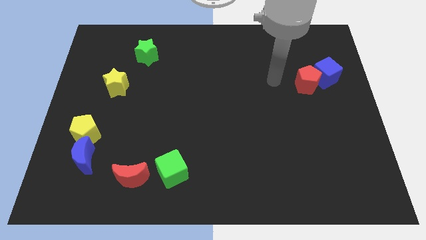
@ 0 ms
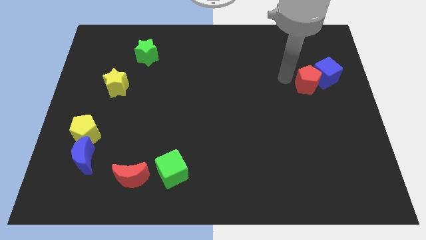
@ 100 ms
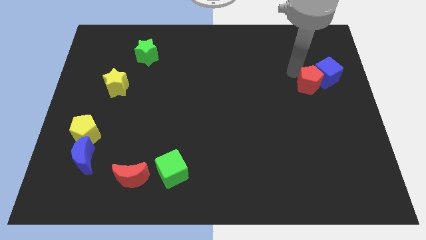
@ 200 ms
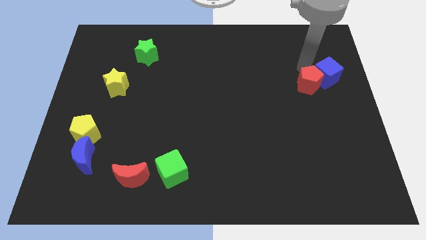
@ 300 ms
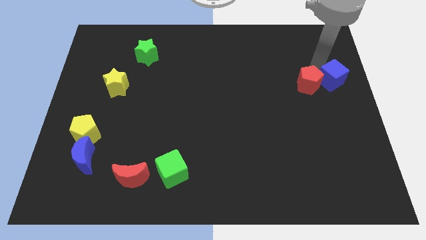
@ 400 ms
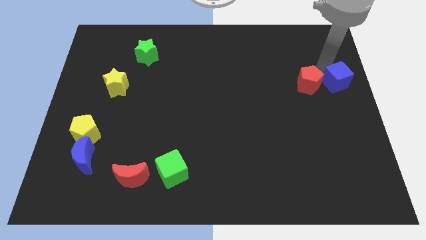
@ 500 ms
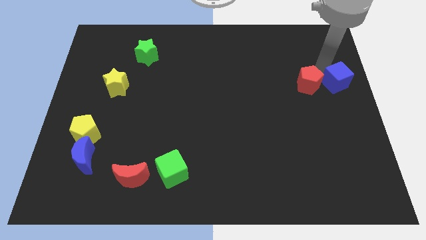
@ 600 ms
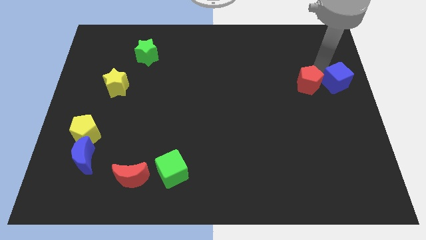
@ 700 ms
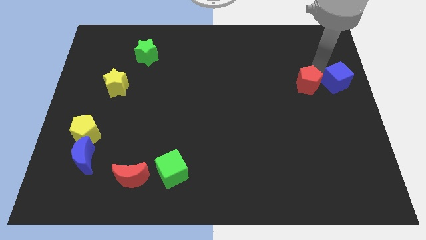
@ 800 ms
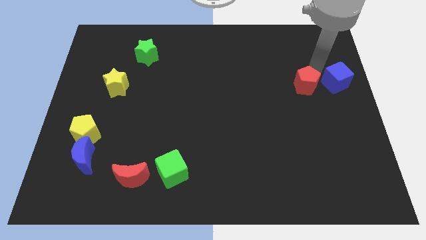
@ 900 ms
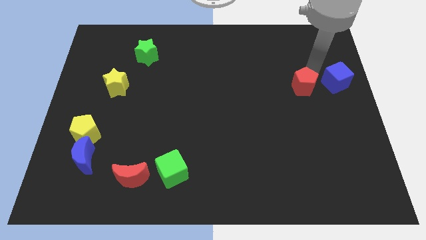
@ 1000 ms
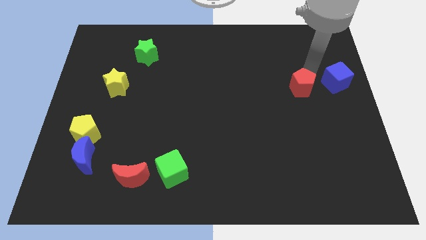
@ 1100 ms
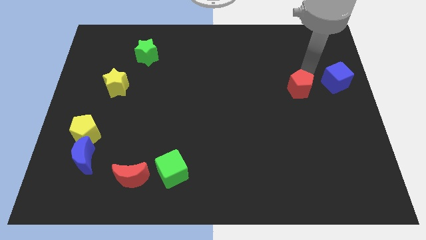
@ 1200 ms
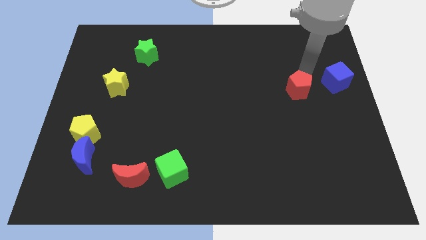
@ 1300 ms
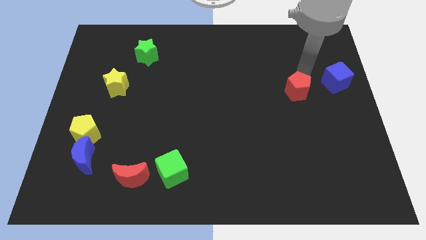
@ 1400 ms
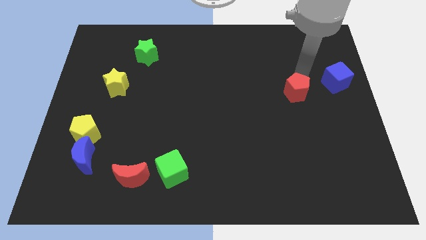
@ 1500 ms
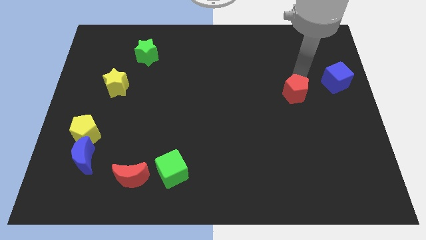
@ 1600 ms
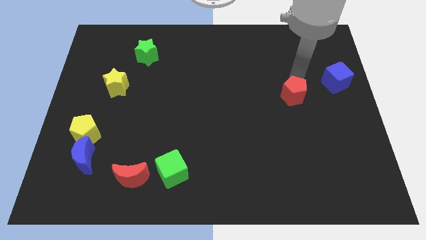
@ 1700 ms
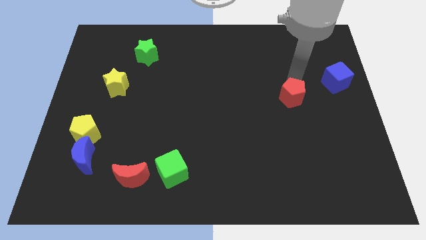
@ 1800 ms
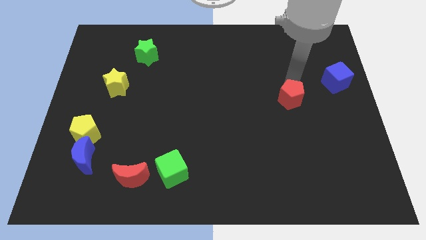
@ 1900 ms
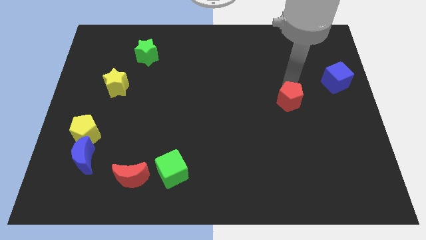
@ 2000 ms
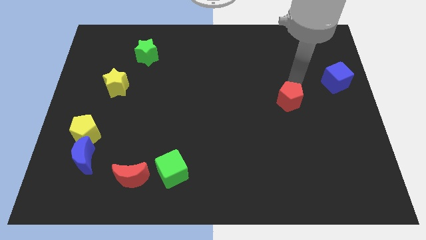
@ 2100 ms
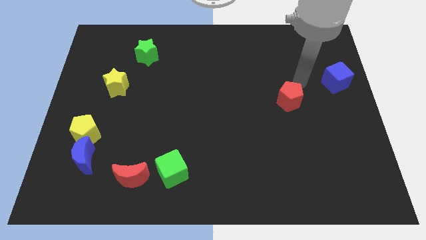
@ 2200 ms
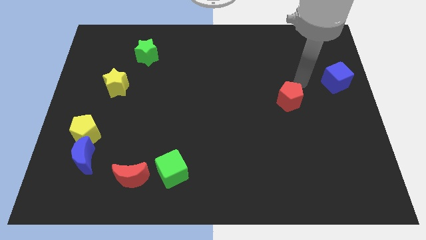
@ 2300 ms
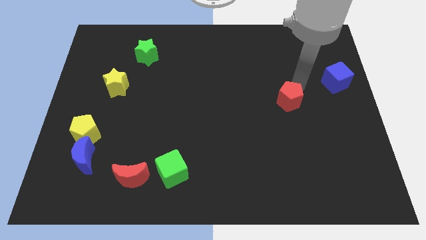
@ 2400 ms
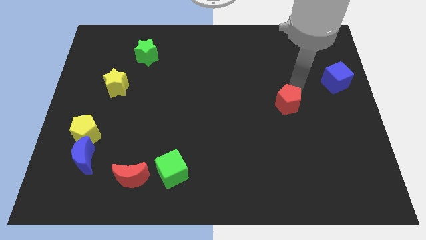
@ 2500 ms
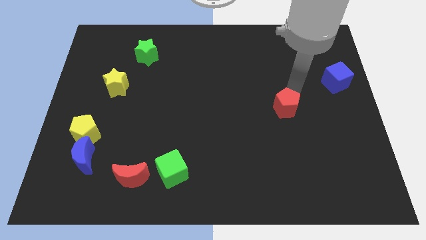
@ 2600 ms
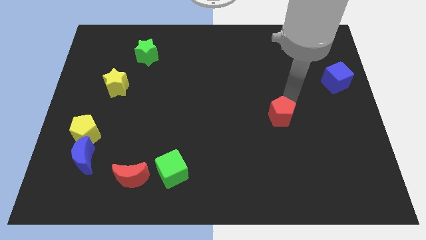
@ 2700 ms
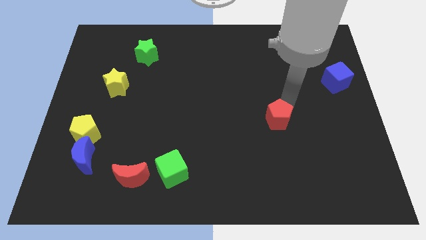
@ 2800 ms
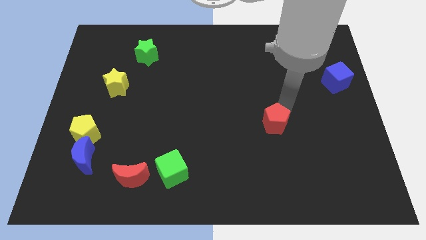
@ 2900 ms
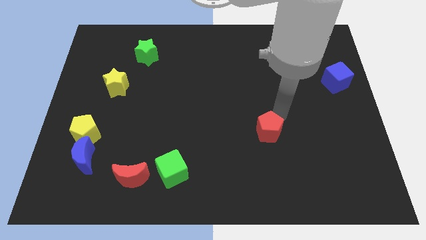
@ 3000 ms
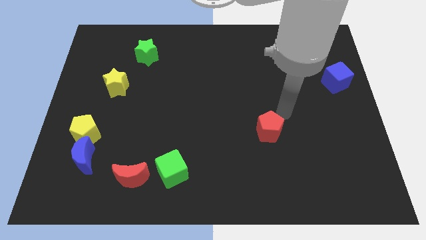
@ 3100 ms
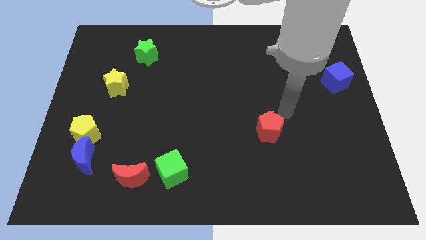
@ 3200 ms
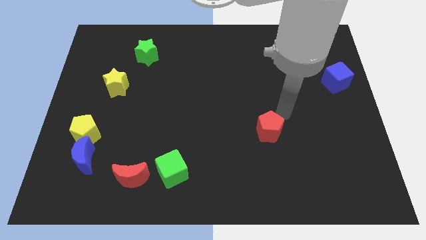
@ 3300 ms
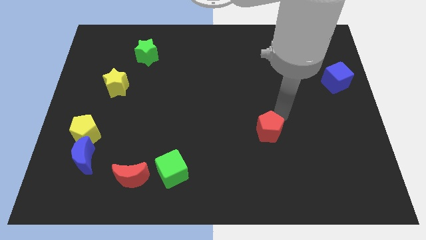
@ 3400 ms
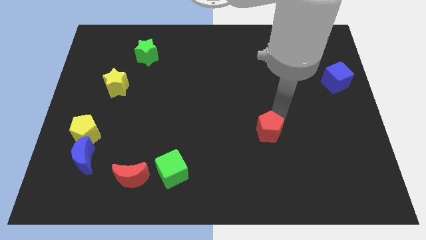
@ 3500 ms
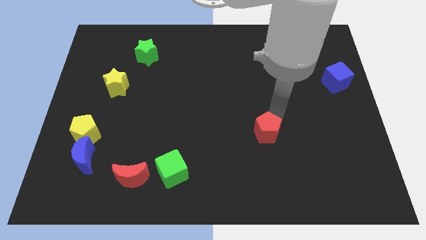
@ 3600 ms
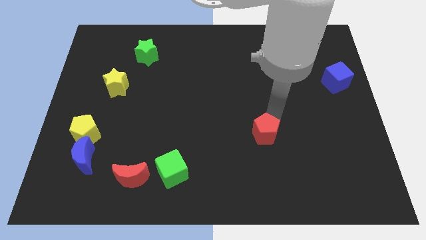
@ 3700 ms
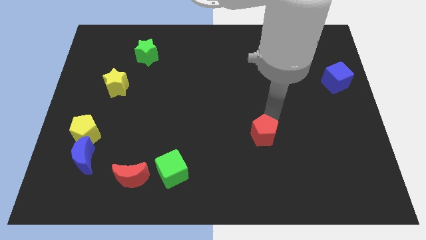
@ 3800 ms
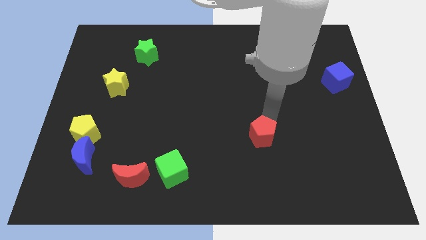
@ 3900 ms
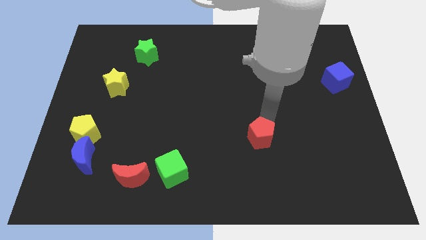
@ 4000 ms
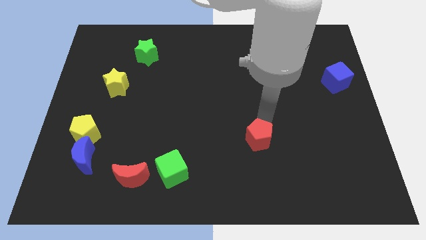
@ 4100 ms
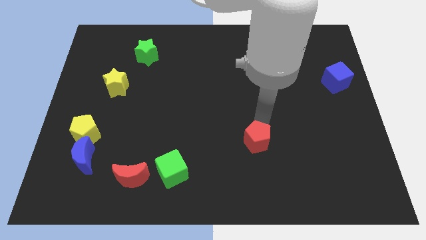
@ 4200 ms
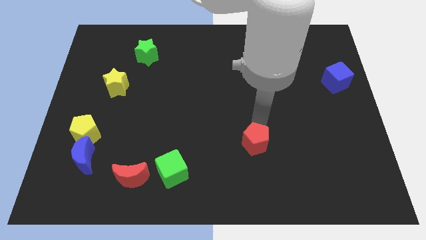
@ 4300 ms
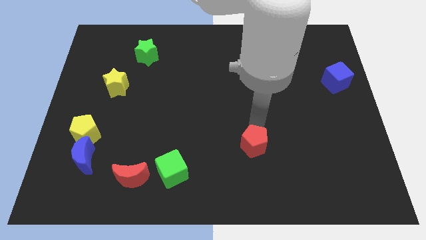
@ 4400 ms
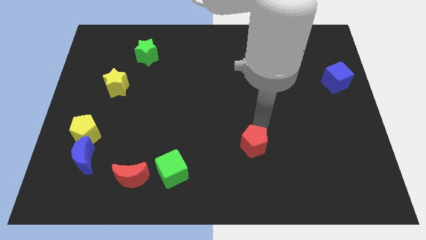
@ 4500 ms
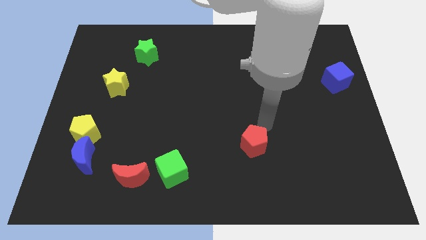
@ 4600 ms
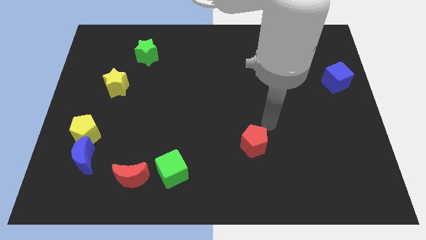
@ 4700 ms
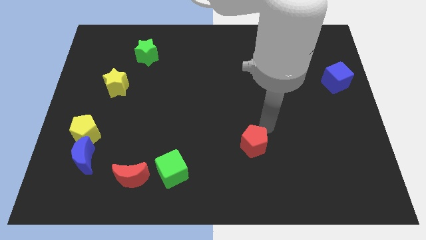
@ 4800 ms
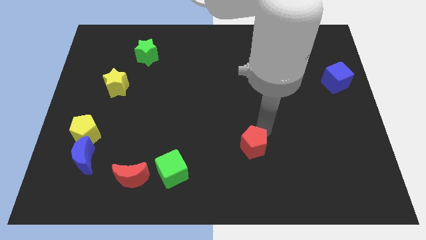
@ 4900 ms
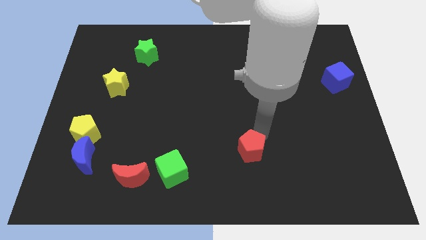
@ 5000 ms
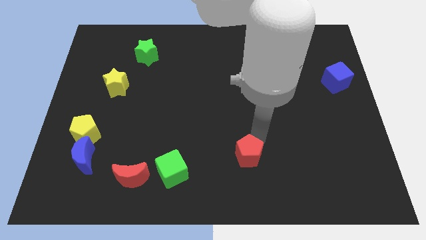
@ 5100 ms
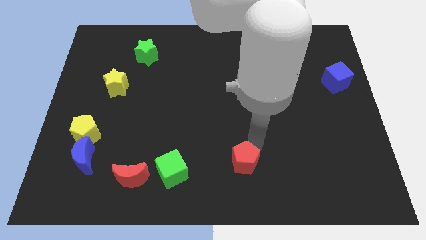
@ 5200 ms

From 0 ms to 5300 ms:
push the red pentagon to the right side of the green cube

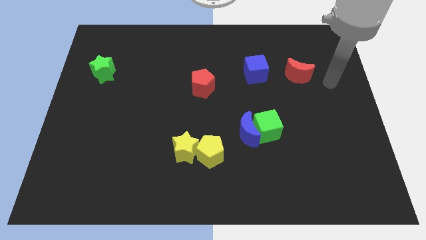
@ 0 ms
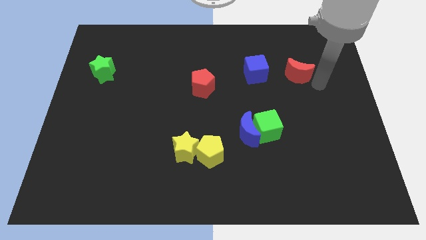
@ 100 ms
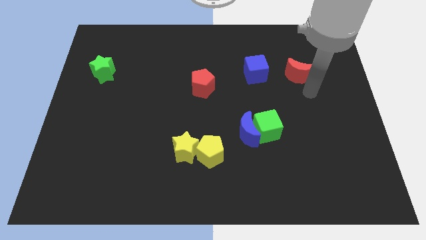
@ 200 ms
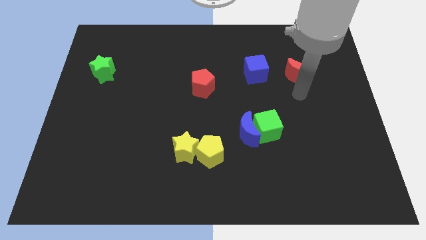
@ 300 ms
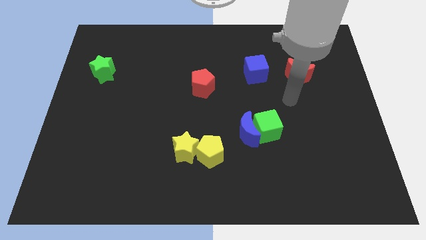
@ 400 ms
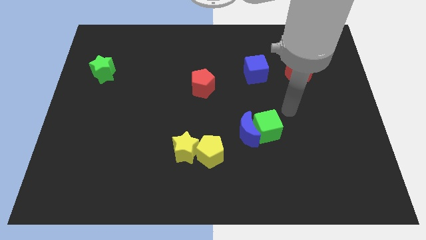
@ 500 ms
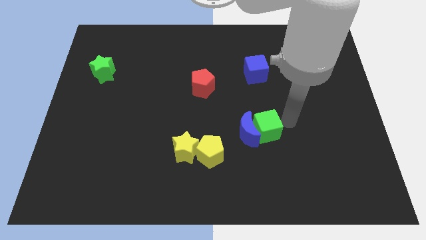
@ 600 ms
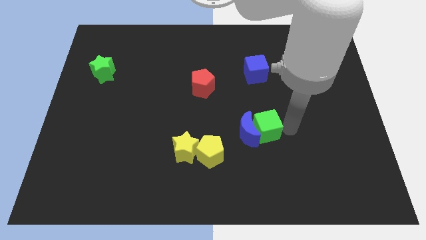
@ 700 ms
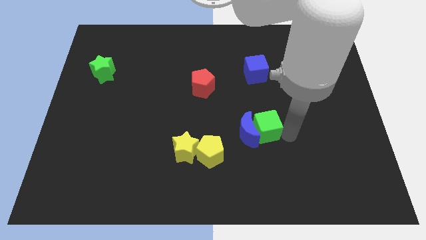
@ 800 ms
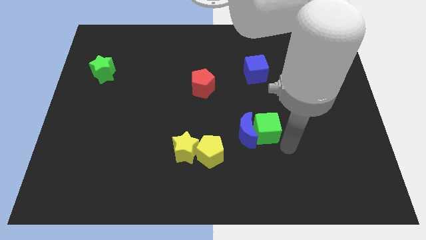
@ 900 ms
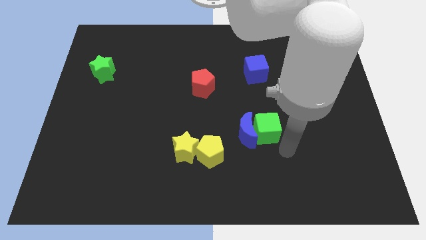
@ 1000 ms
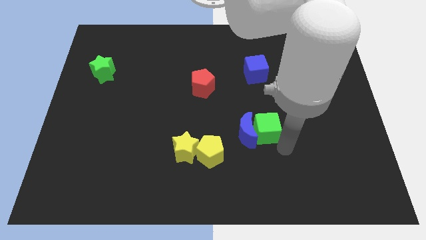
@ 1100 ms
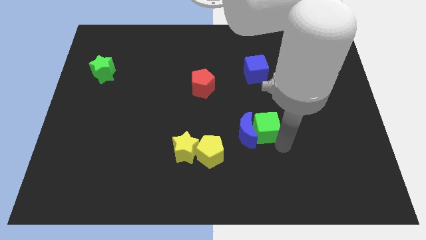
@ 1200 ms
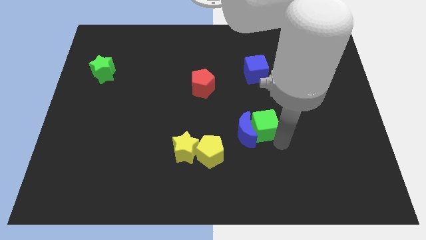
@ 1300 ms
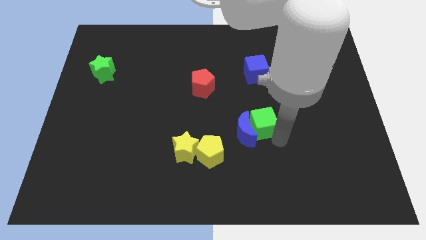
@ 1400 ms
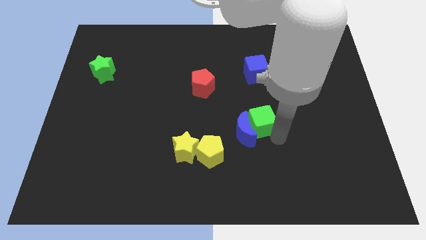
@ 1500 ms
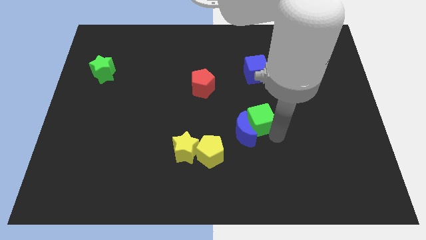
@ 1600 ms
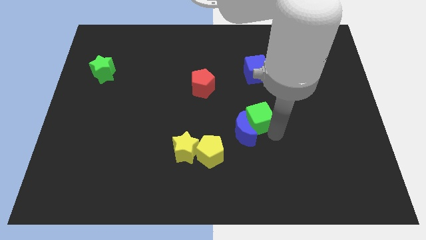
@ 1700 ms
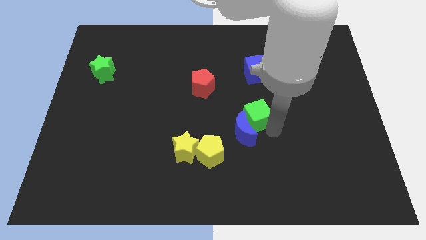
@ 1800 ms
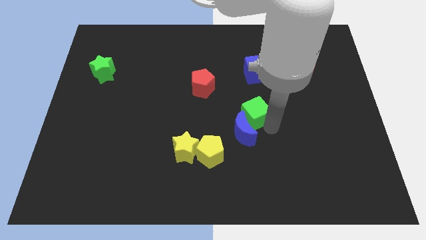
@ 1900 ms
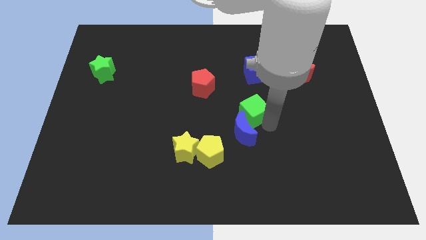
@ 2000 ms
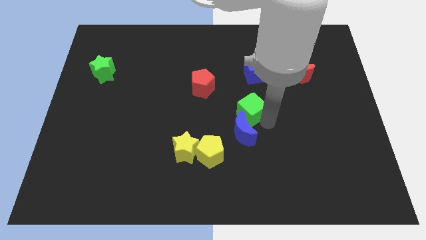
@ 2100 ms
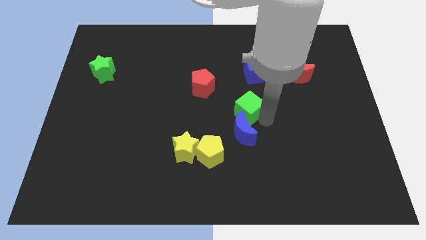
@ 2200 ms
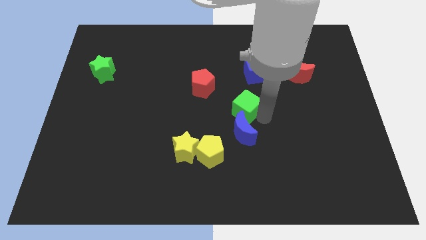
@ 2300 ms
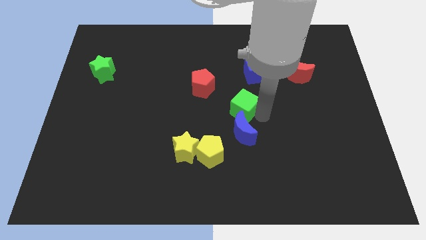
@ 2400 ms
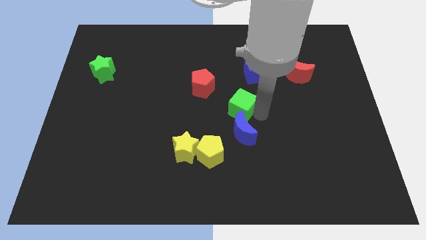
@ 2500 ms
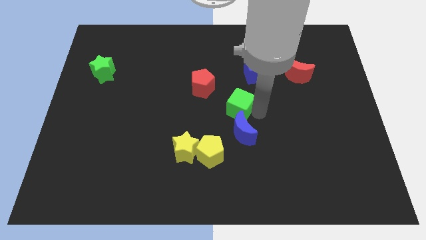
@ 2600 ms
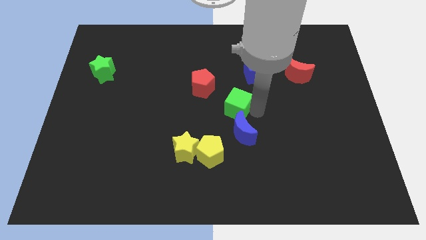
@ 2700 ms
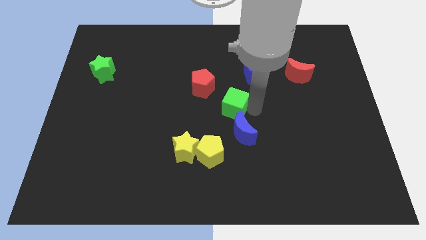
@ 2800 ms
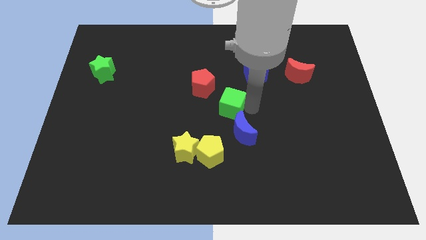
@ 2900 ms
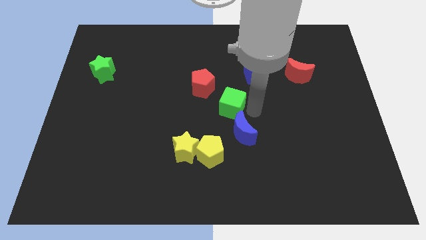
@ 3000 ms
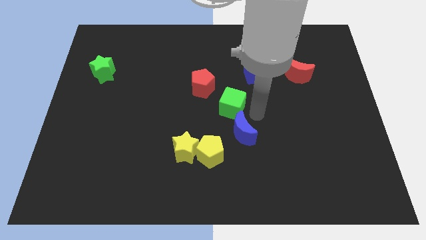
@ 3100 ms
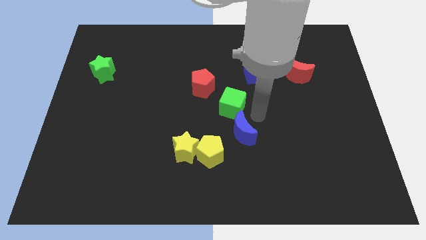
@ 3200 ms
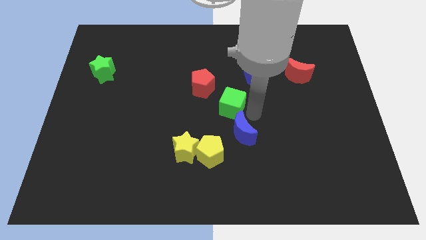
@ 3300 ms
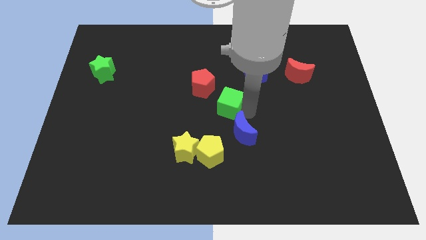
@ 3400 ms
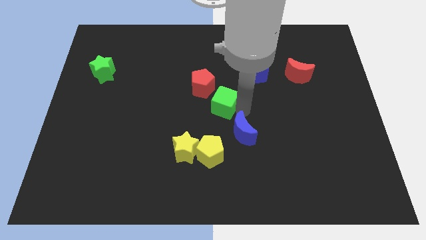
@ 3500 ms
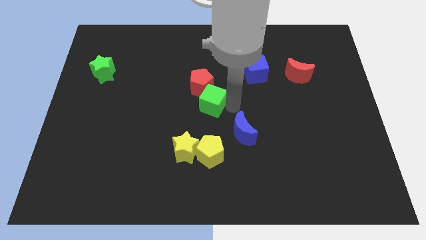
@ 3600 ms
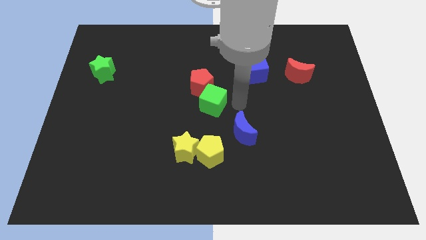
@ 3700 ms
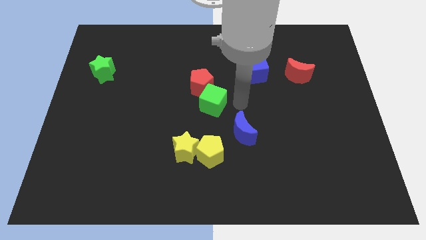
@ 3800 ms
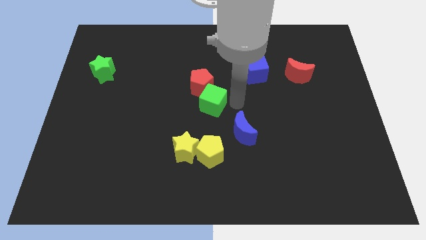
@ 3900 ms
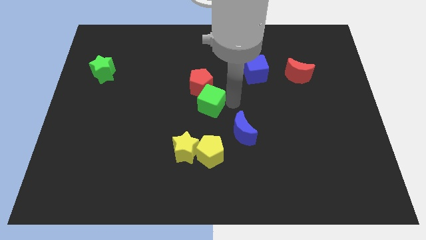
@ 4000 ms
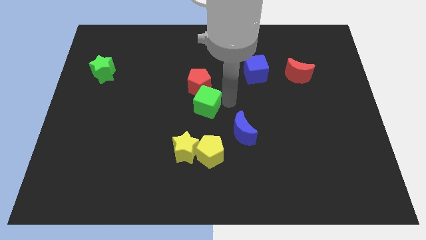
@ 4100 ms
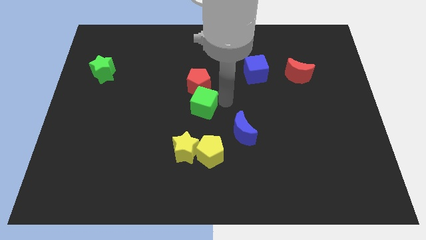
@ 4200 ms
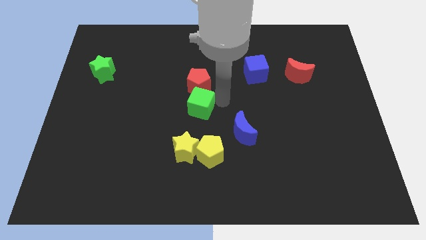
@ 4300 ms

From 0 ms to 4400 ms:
slide the green cube to the bottom left of the red pentagon
